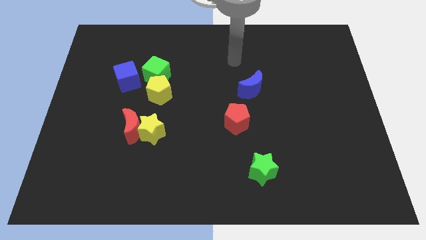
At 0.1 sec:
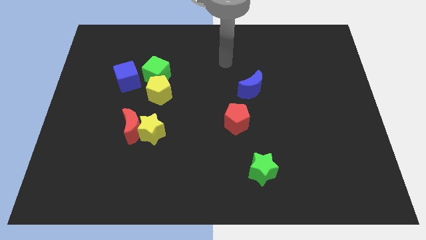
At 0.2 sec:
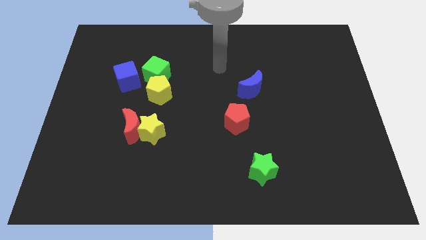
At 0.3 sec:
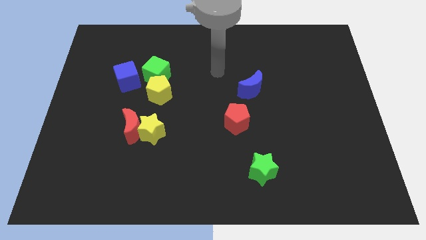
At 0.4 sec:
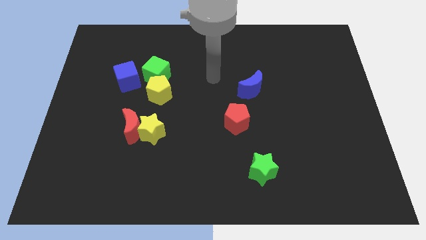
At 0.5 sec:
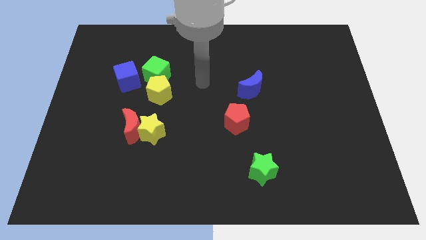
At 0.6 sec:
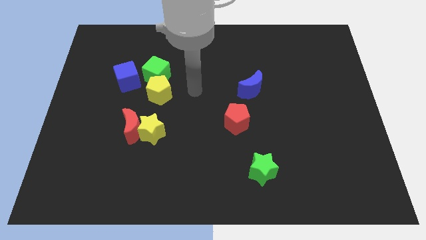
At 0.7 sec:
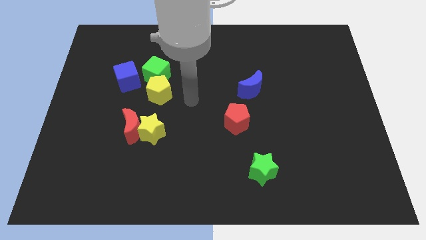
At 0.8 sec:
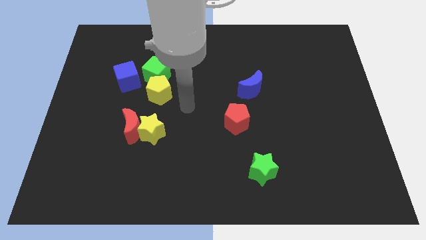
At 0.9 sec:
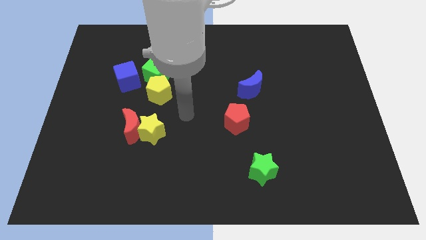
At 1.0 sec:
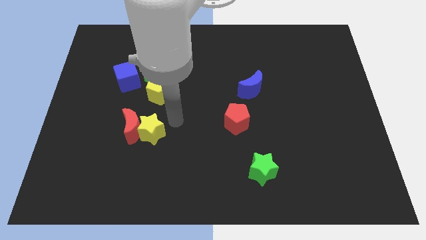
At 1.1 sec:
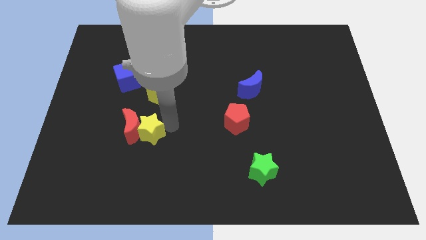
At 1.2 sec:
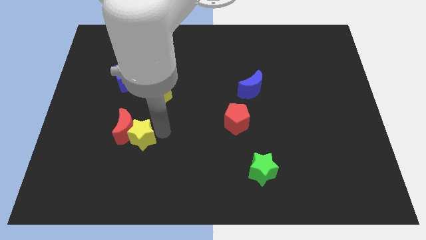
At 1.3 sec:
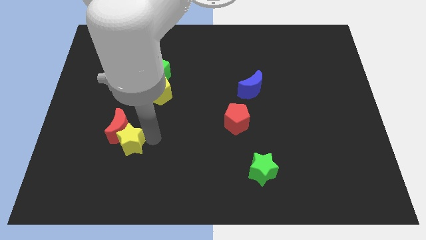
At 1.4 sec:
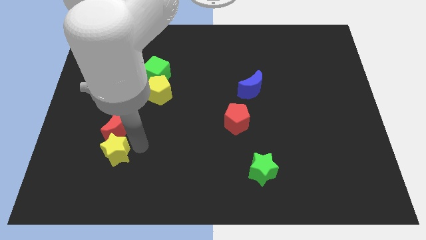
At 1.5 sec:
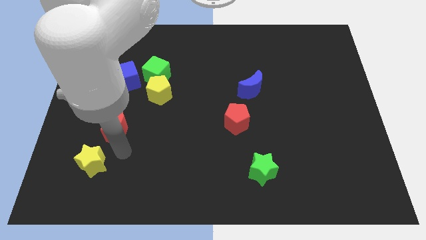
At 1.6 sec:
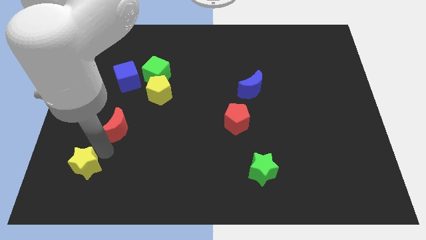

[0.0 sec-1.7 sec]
separate the red moon from the yellow star

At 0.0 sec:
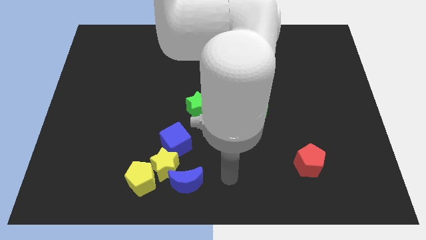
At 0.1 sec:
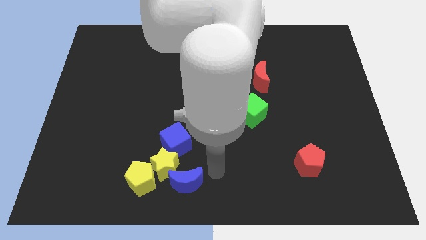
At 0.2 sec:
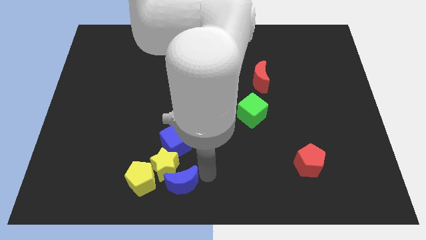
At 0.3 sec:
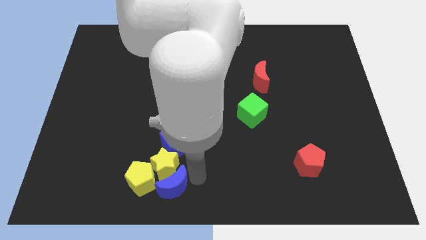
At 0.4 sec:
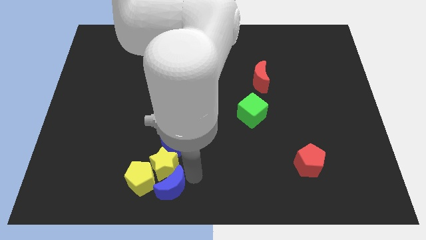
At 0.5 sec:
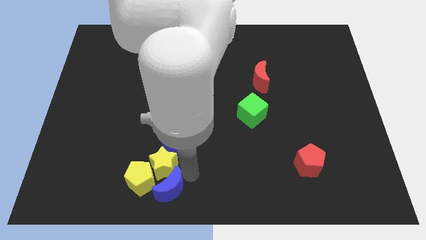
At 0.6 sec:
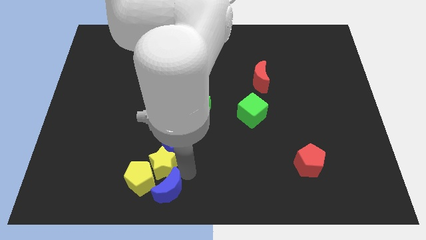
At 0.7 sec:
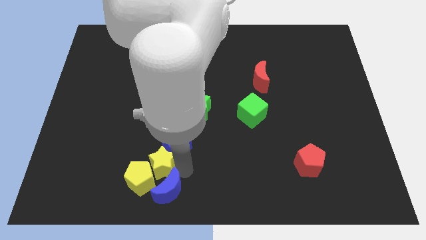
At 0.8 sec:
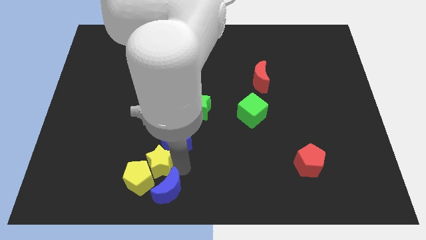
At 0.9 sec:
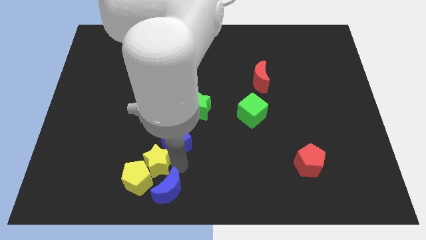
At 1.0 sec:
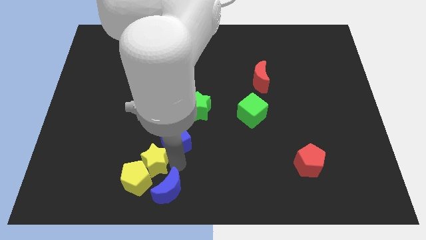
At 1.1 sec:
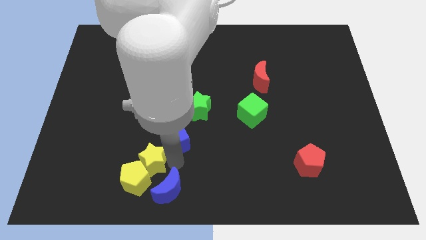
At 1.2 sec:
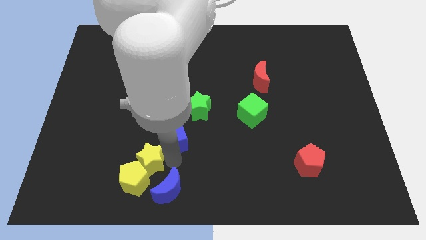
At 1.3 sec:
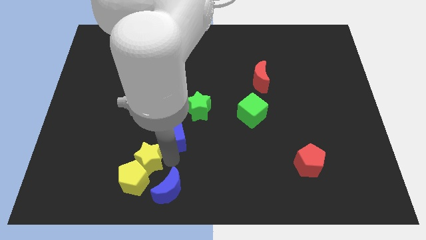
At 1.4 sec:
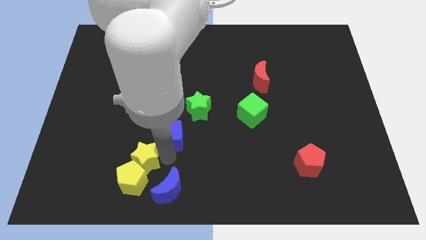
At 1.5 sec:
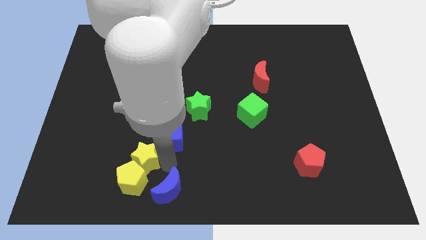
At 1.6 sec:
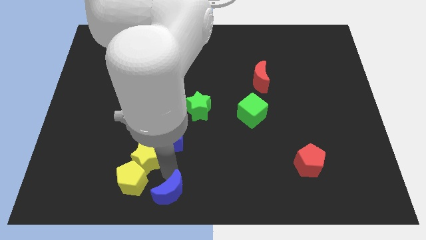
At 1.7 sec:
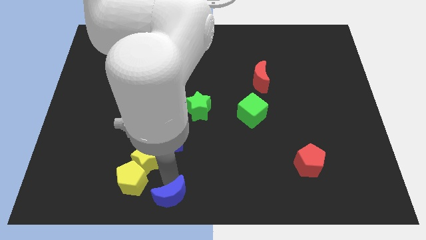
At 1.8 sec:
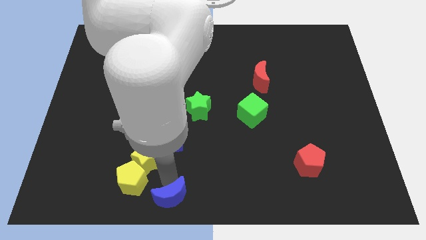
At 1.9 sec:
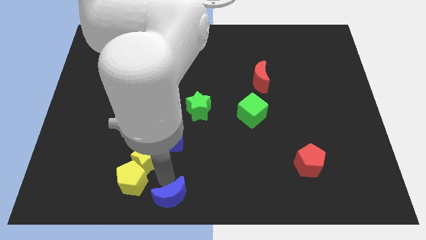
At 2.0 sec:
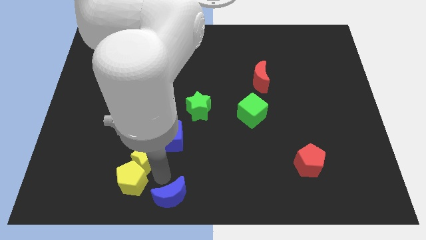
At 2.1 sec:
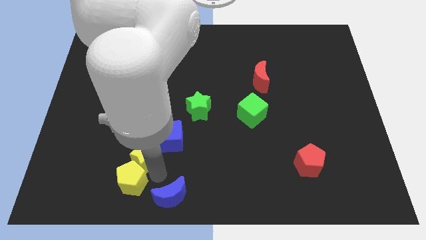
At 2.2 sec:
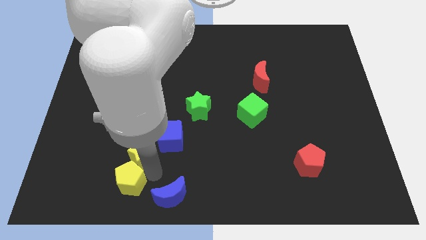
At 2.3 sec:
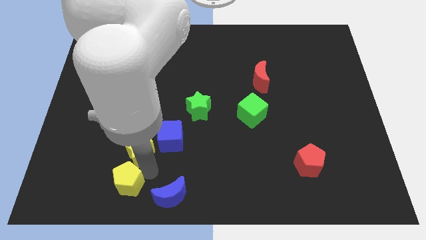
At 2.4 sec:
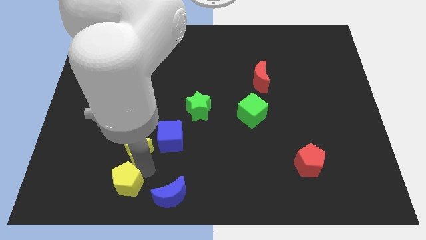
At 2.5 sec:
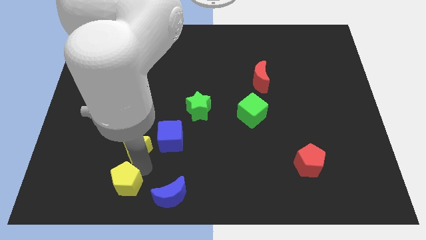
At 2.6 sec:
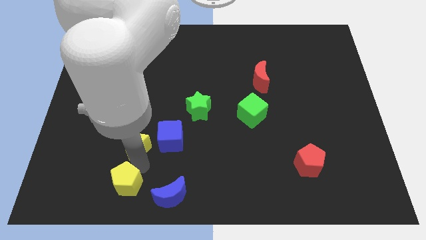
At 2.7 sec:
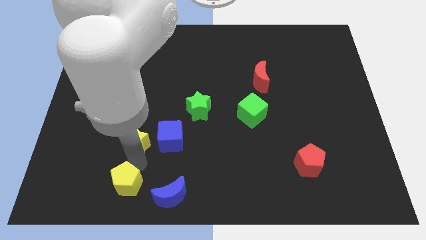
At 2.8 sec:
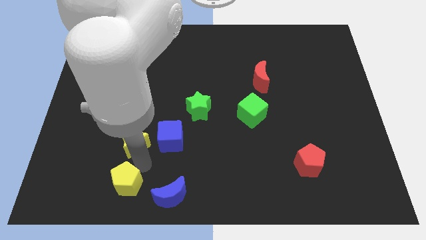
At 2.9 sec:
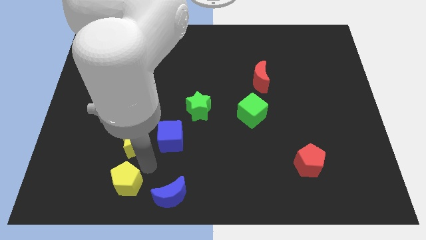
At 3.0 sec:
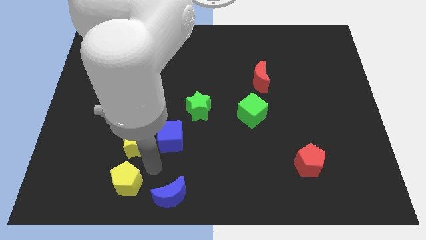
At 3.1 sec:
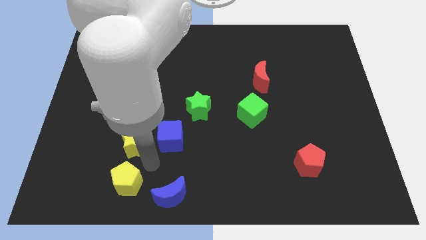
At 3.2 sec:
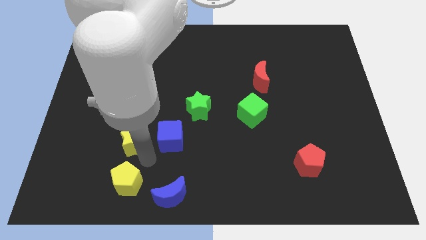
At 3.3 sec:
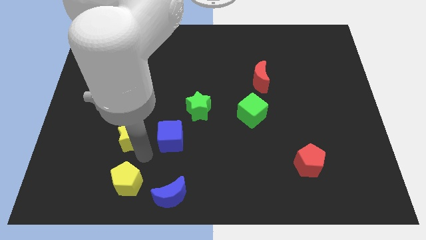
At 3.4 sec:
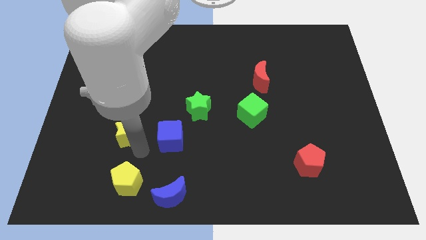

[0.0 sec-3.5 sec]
separate the yellow star from the clump

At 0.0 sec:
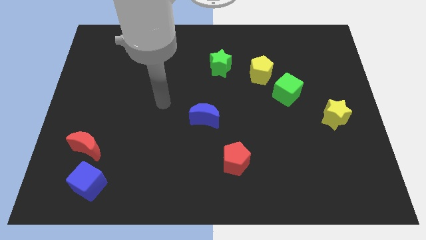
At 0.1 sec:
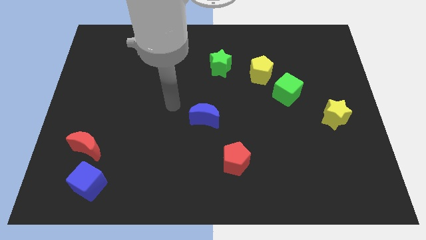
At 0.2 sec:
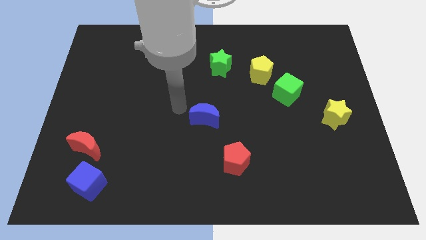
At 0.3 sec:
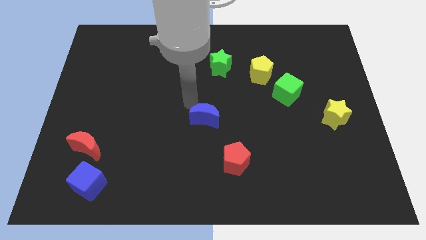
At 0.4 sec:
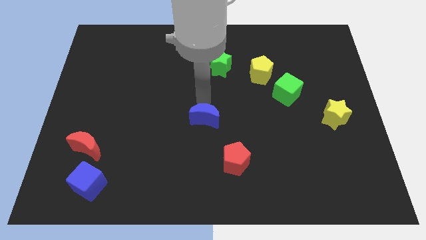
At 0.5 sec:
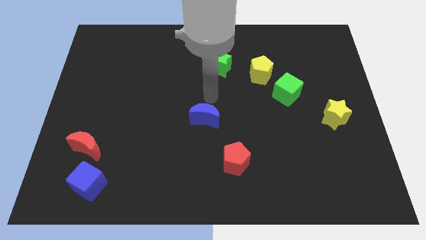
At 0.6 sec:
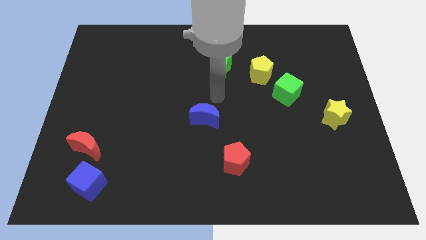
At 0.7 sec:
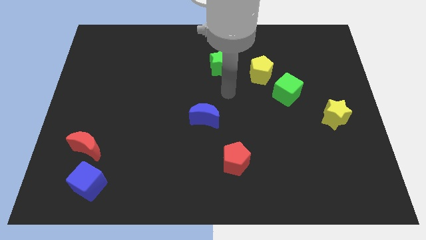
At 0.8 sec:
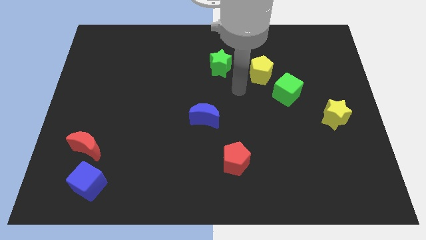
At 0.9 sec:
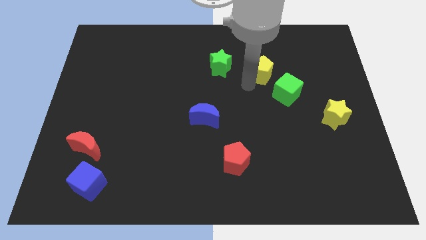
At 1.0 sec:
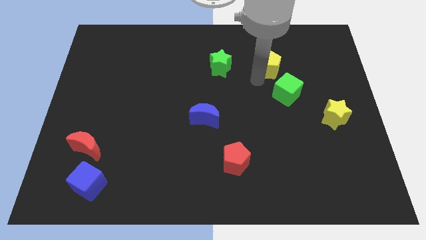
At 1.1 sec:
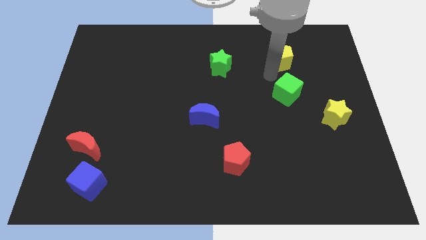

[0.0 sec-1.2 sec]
separate the green cube from the yellow pentagon

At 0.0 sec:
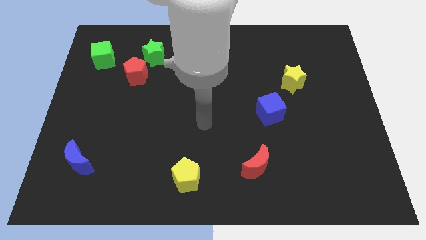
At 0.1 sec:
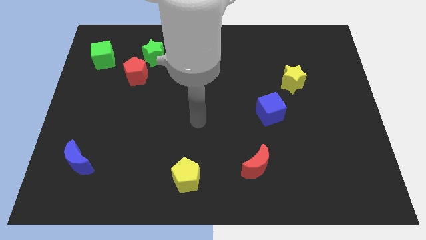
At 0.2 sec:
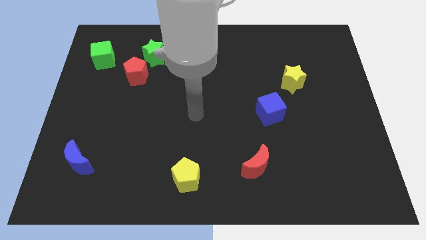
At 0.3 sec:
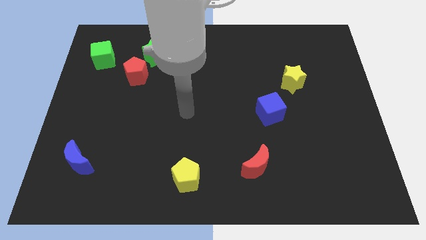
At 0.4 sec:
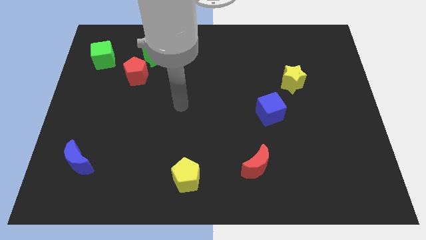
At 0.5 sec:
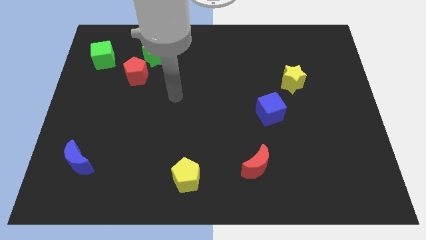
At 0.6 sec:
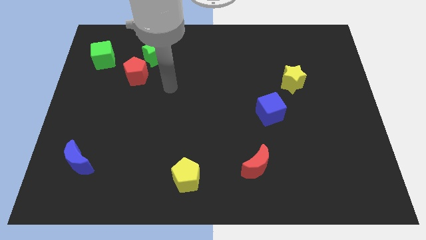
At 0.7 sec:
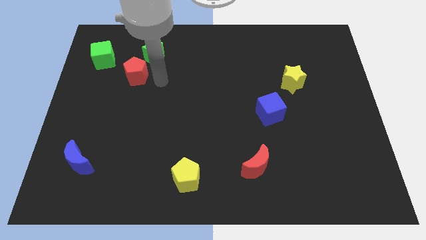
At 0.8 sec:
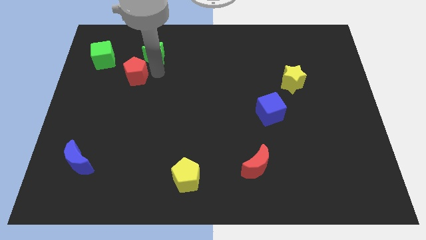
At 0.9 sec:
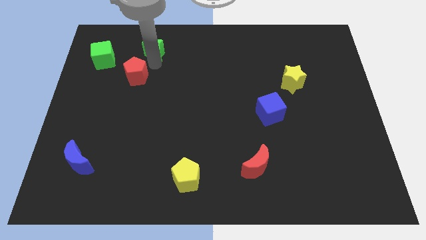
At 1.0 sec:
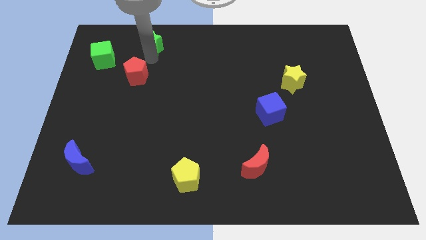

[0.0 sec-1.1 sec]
pull the red pentagon apart from the green star

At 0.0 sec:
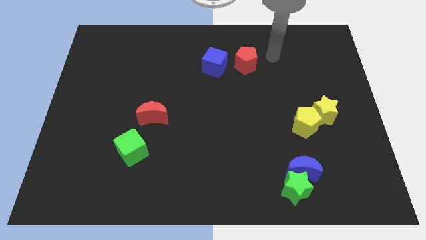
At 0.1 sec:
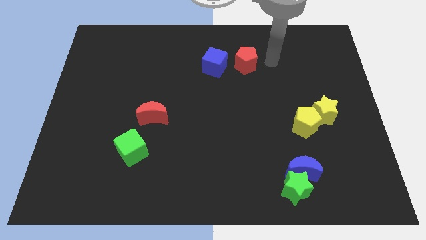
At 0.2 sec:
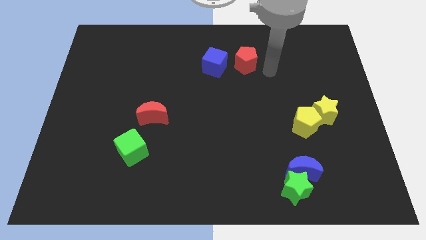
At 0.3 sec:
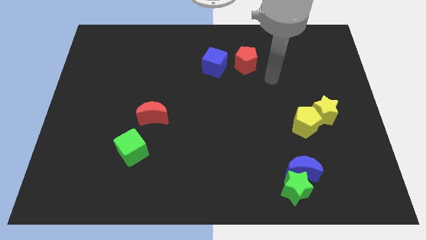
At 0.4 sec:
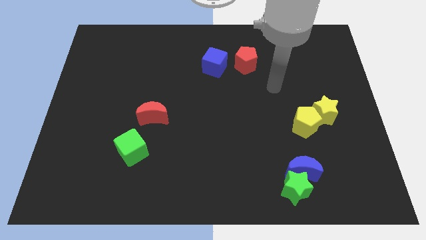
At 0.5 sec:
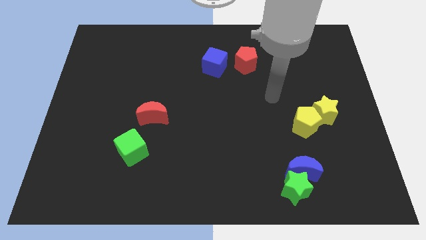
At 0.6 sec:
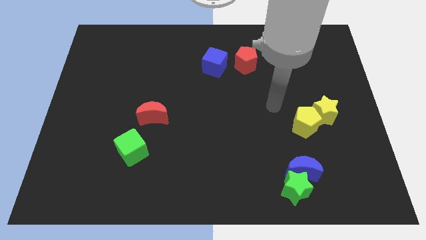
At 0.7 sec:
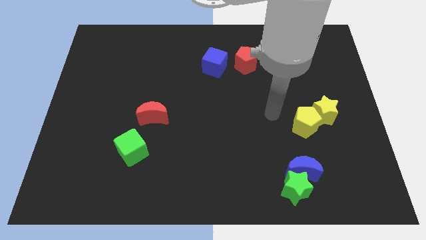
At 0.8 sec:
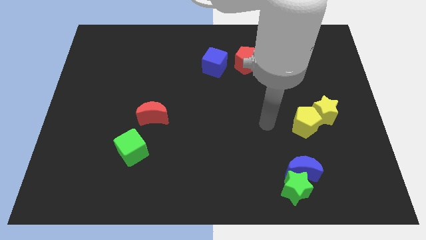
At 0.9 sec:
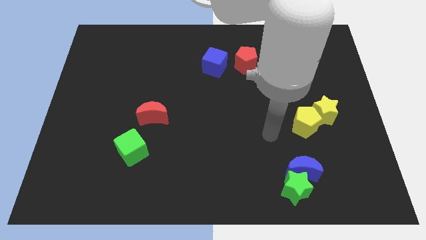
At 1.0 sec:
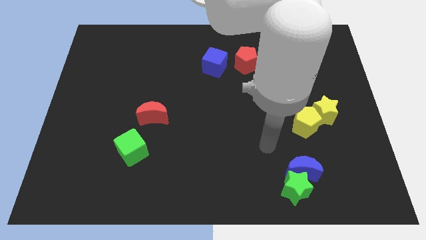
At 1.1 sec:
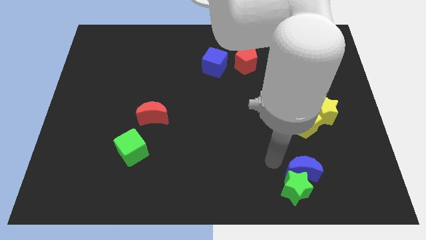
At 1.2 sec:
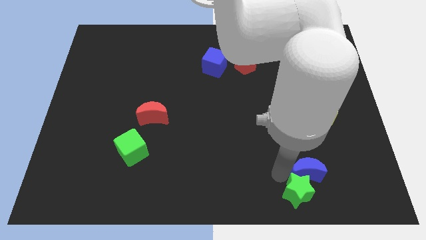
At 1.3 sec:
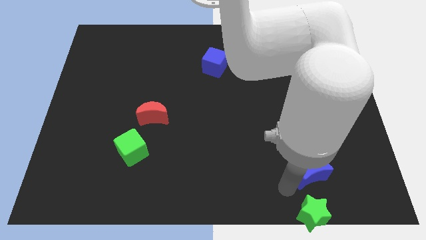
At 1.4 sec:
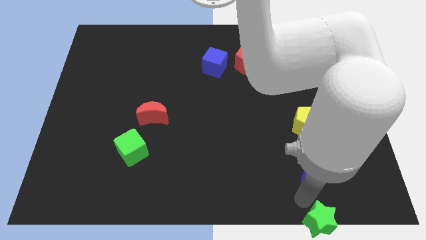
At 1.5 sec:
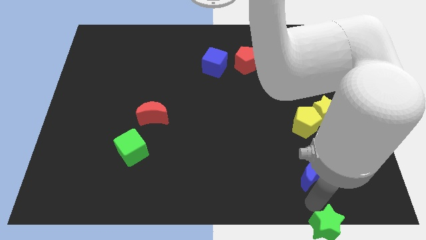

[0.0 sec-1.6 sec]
move the blue moon away from the green star
